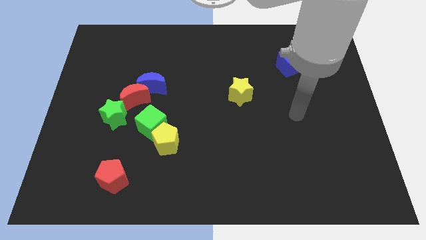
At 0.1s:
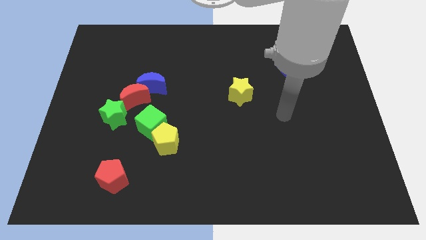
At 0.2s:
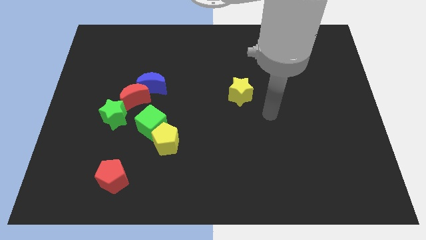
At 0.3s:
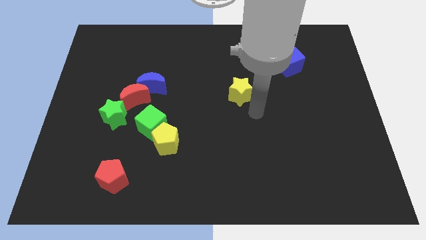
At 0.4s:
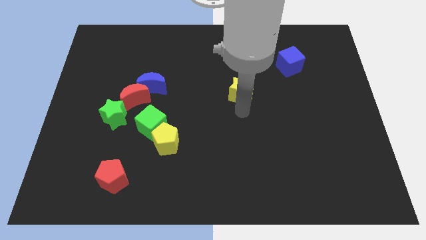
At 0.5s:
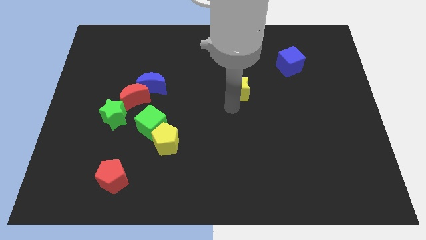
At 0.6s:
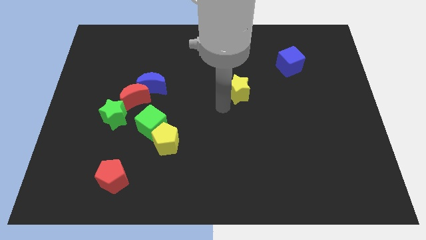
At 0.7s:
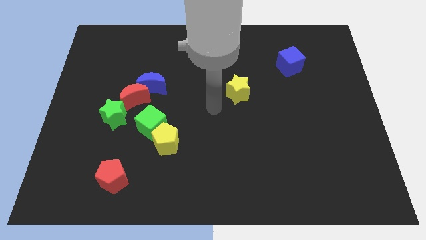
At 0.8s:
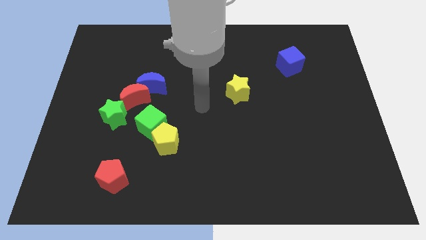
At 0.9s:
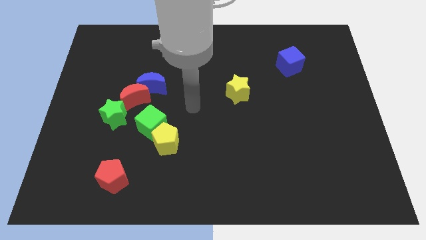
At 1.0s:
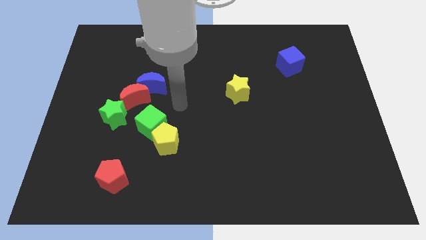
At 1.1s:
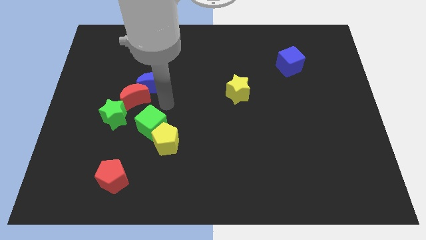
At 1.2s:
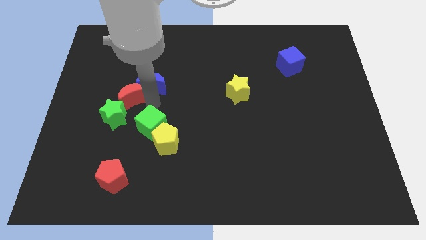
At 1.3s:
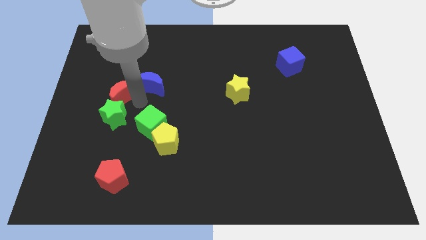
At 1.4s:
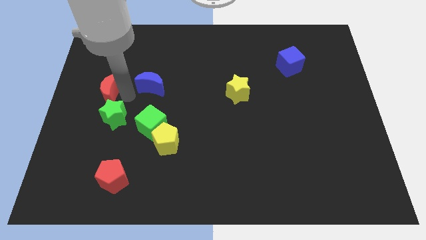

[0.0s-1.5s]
pull the blue moon apart from the red moon

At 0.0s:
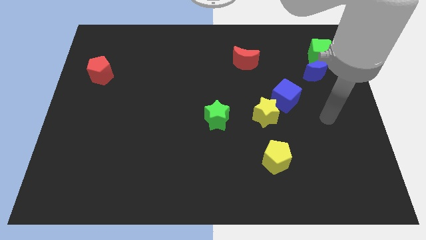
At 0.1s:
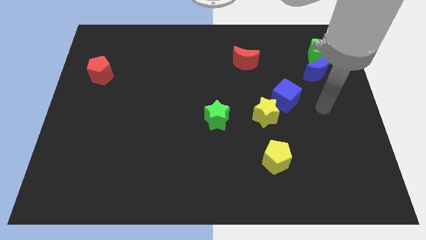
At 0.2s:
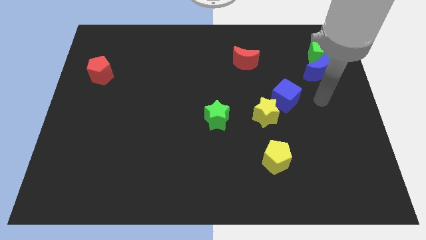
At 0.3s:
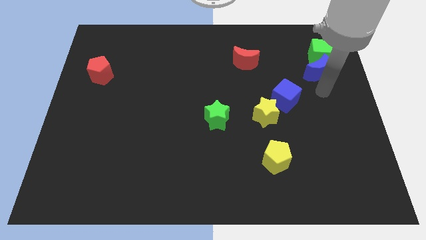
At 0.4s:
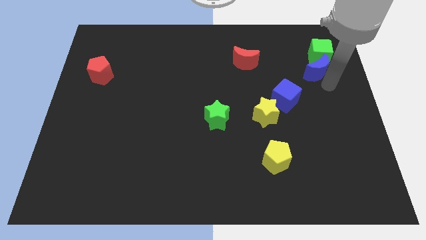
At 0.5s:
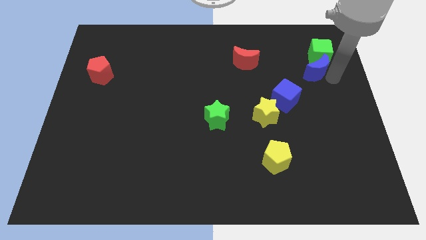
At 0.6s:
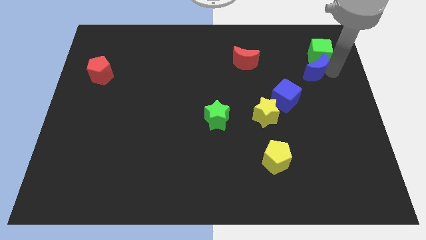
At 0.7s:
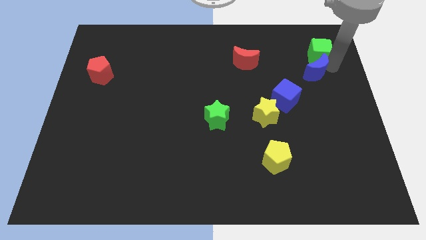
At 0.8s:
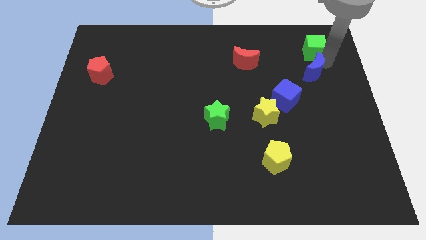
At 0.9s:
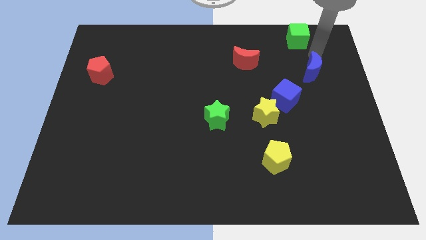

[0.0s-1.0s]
pull the blue moon apart from the green cube

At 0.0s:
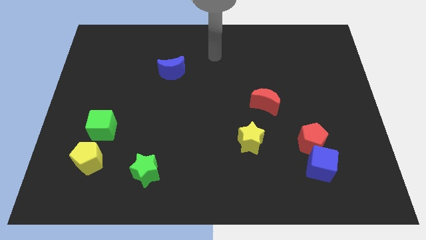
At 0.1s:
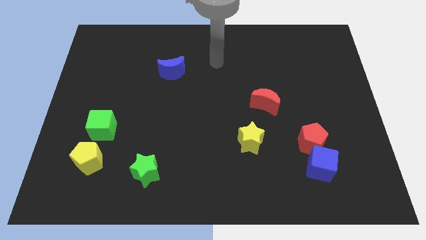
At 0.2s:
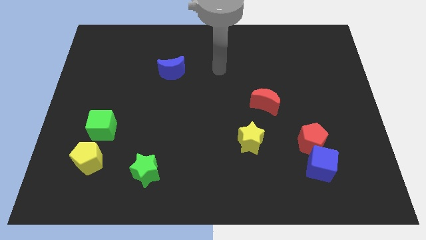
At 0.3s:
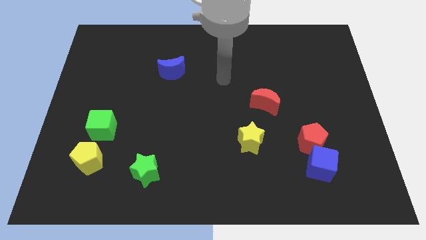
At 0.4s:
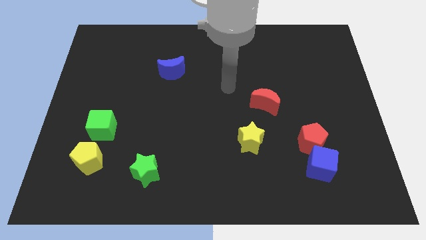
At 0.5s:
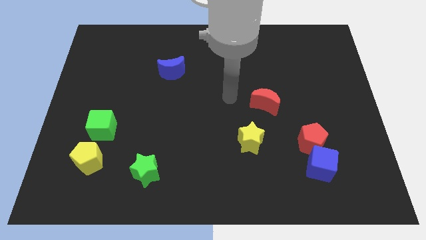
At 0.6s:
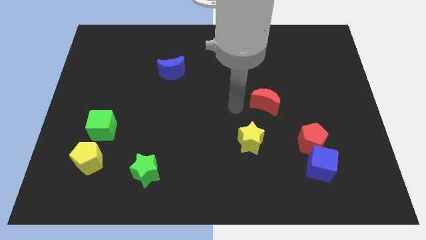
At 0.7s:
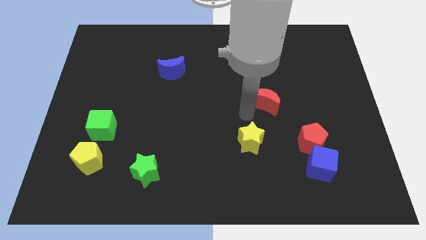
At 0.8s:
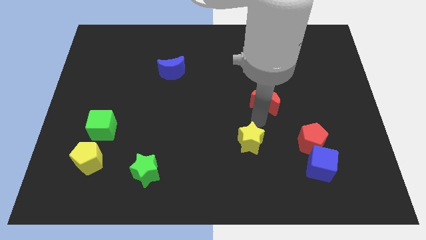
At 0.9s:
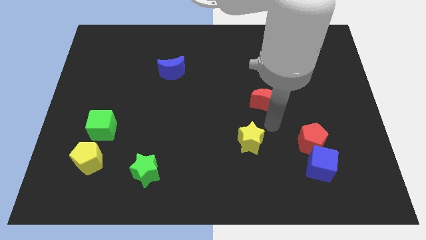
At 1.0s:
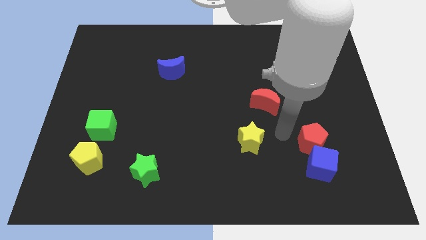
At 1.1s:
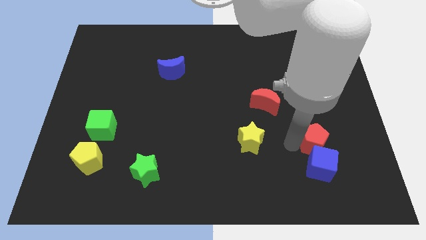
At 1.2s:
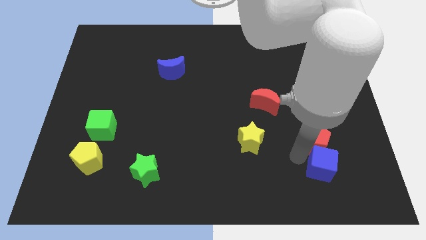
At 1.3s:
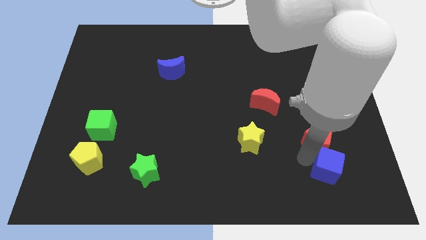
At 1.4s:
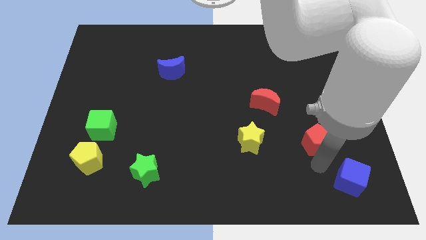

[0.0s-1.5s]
pull the red pentagon apart from the blue cube

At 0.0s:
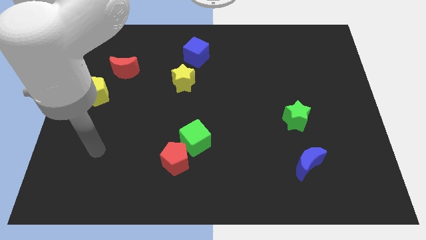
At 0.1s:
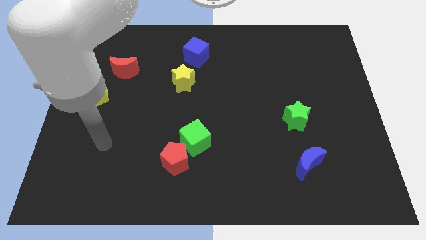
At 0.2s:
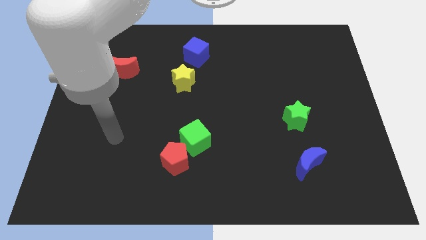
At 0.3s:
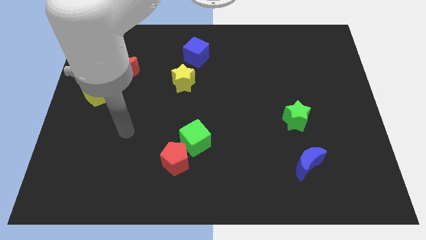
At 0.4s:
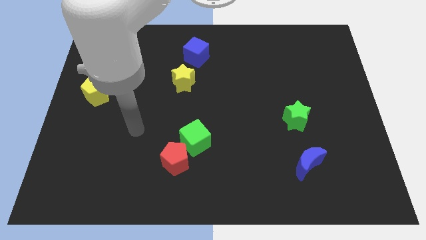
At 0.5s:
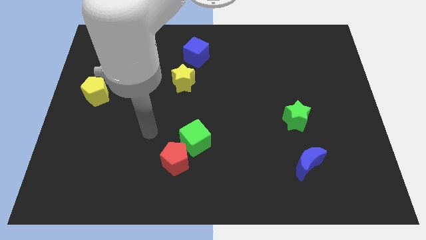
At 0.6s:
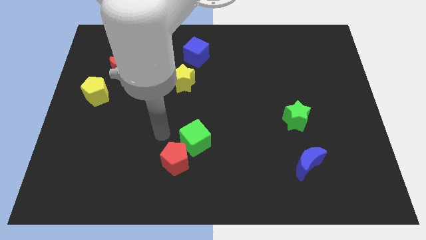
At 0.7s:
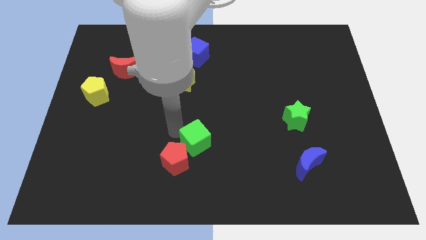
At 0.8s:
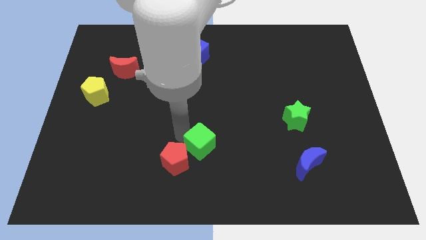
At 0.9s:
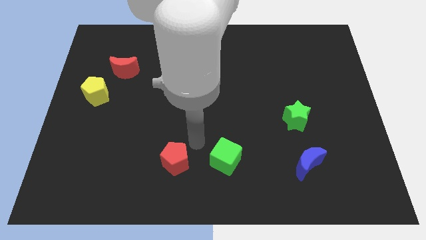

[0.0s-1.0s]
pull the red pentagon apart from the green cube

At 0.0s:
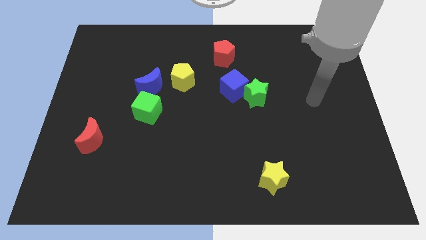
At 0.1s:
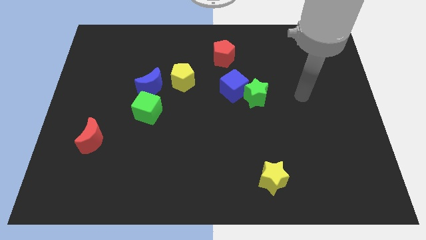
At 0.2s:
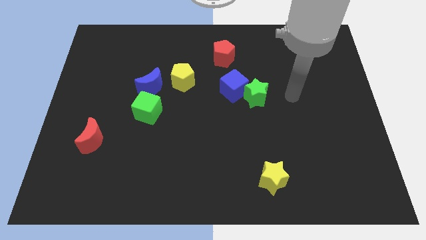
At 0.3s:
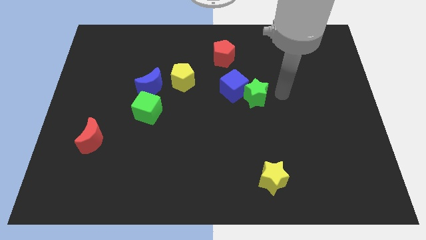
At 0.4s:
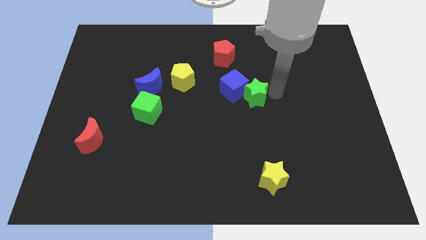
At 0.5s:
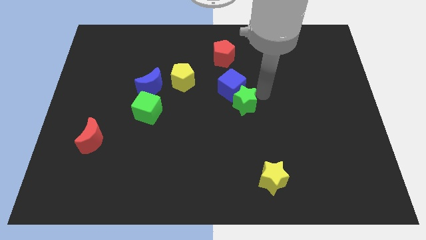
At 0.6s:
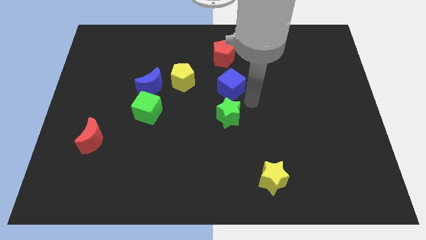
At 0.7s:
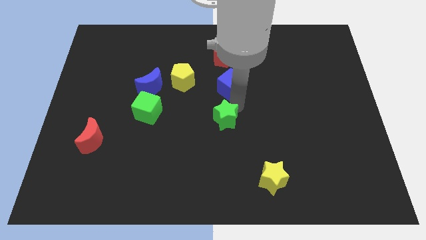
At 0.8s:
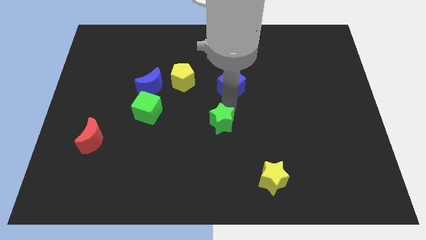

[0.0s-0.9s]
move the blue cube away from the green star

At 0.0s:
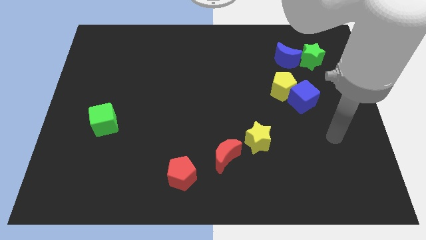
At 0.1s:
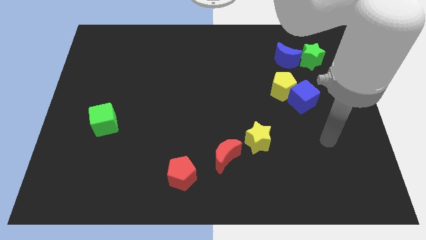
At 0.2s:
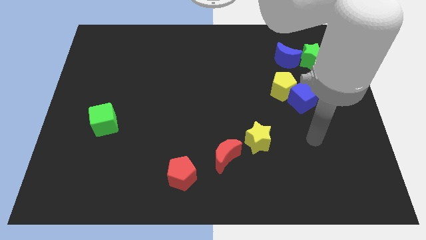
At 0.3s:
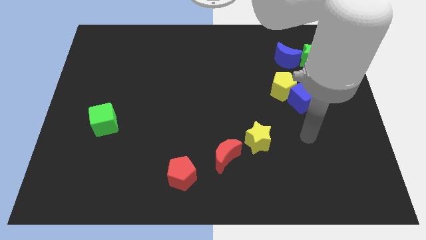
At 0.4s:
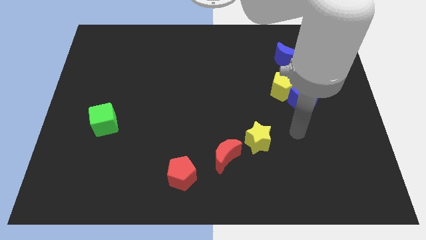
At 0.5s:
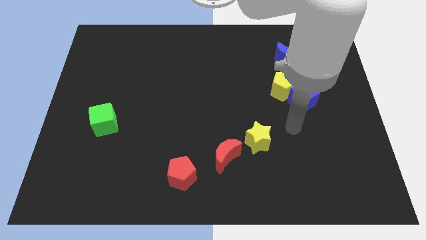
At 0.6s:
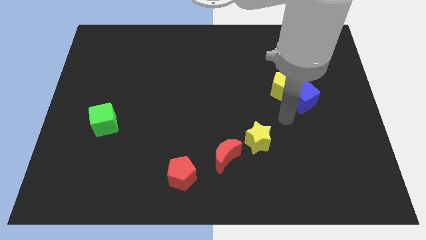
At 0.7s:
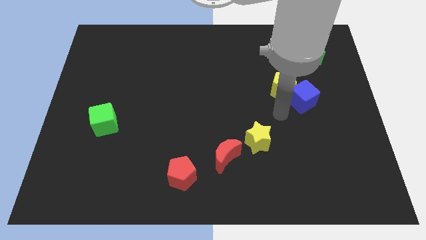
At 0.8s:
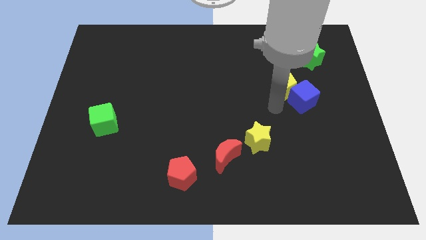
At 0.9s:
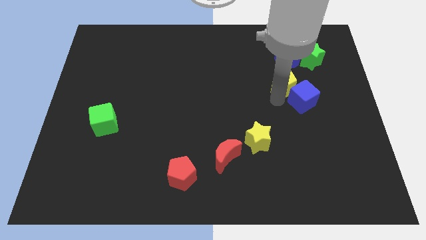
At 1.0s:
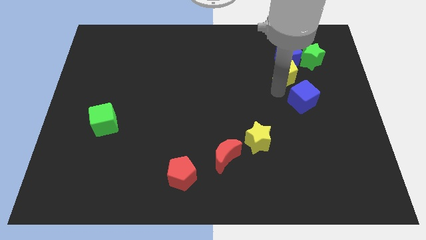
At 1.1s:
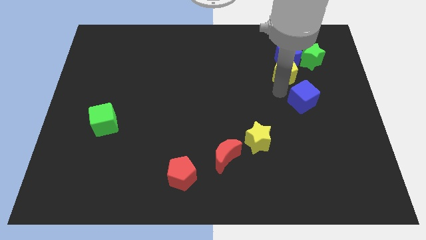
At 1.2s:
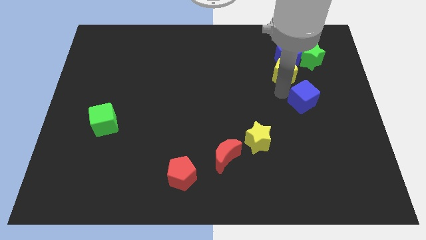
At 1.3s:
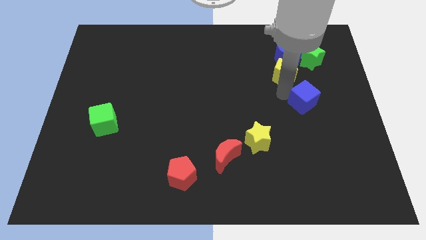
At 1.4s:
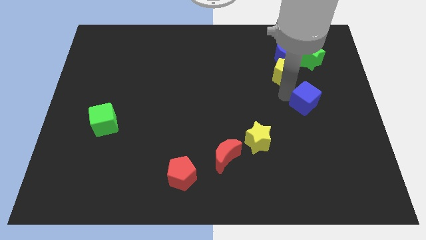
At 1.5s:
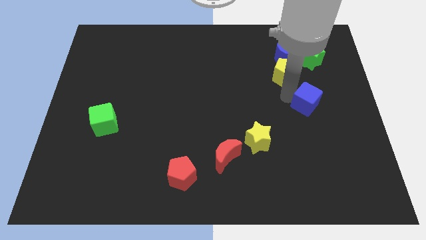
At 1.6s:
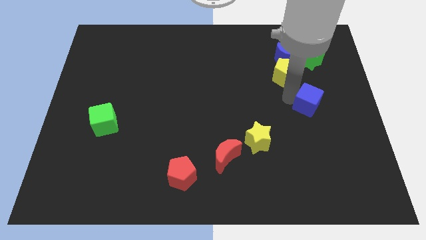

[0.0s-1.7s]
move the blue cube away from the yellow pentagon

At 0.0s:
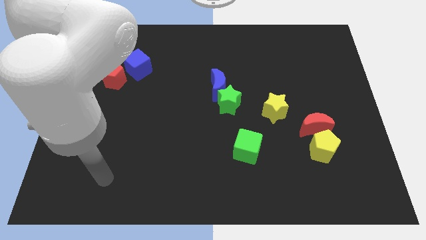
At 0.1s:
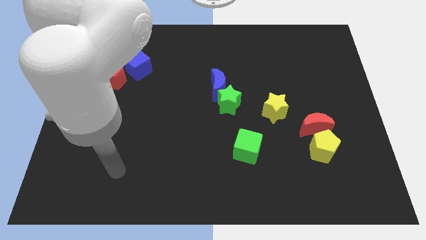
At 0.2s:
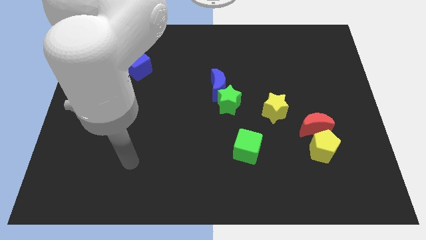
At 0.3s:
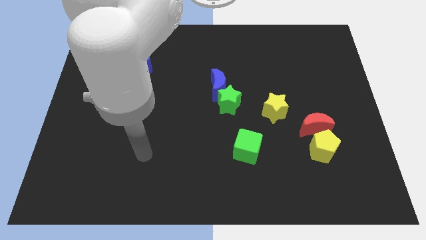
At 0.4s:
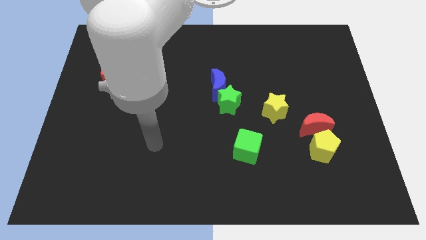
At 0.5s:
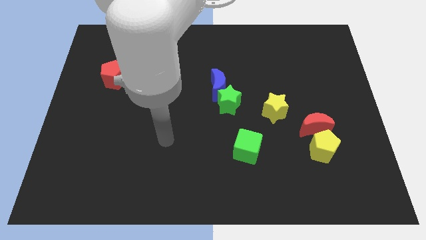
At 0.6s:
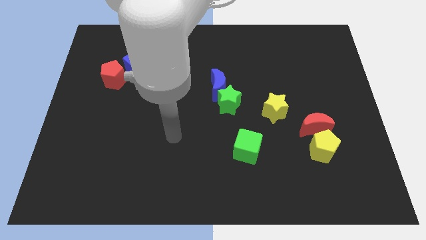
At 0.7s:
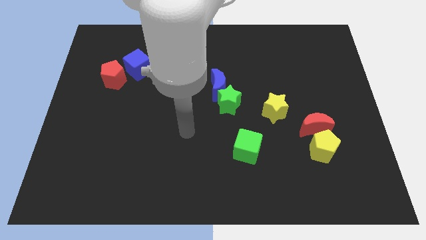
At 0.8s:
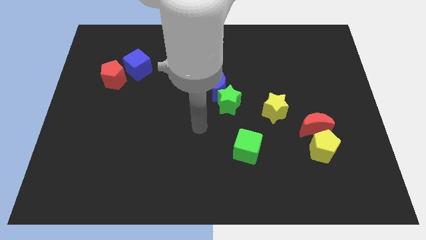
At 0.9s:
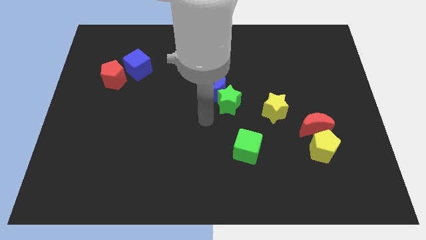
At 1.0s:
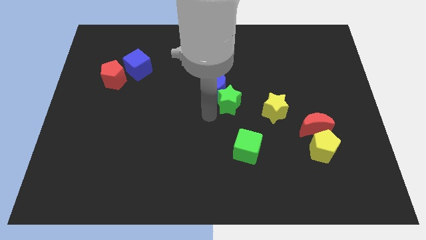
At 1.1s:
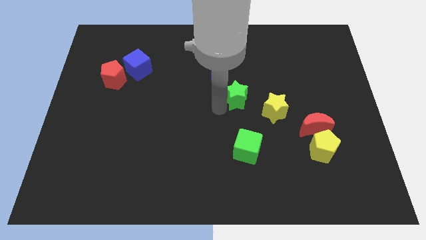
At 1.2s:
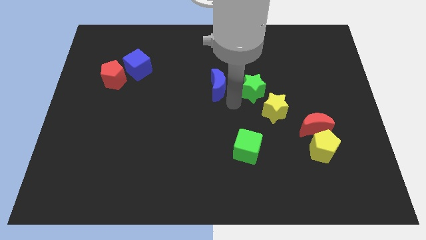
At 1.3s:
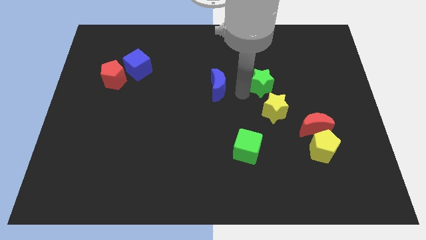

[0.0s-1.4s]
pull the blue moon apart from the green star

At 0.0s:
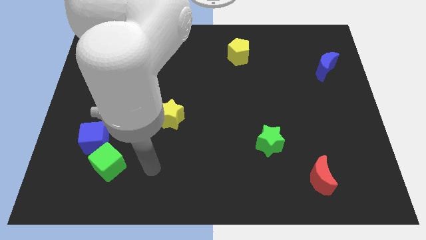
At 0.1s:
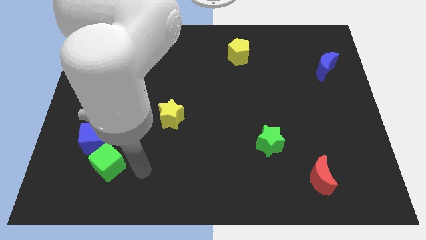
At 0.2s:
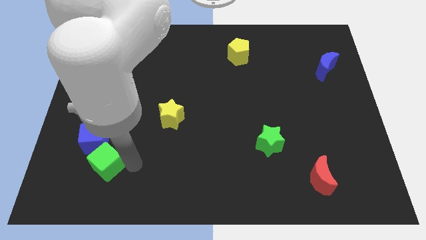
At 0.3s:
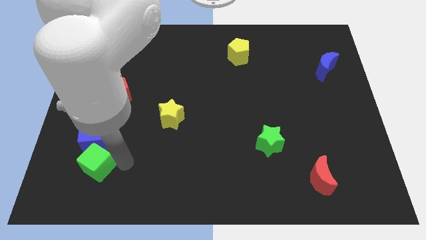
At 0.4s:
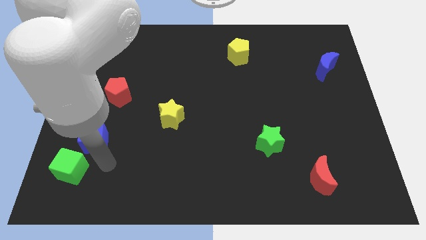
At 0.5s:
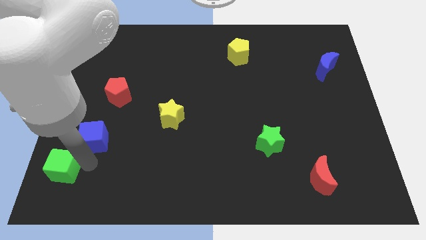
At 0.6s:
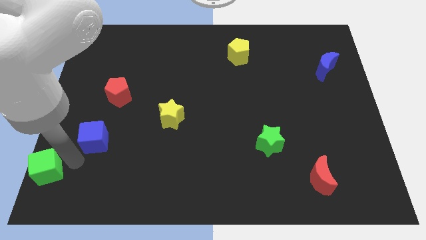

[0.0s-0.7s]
pull the blue cube apart from the green cube
